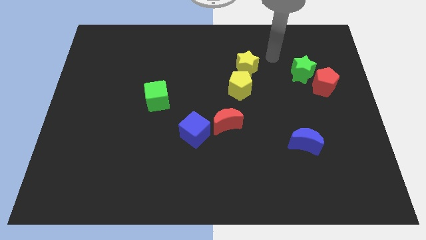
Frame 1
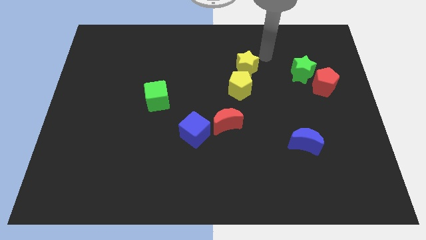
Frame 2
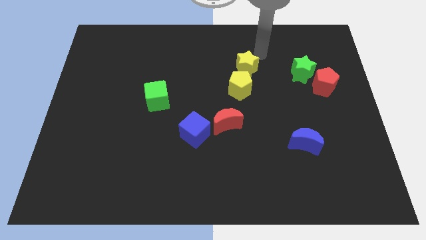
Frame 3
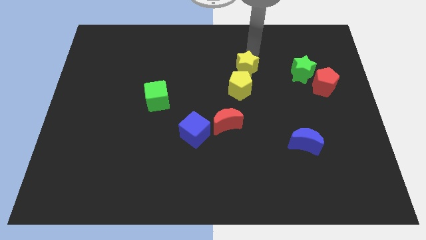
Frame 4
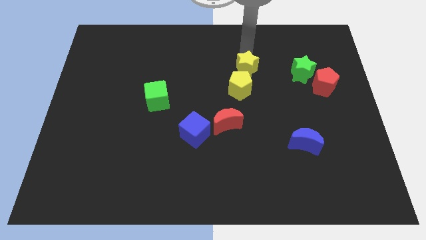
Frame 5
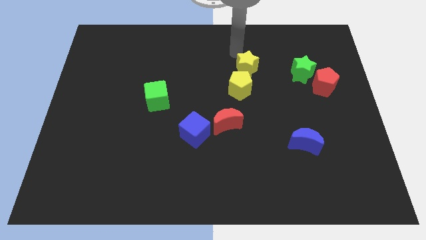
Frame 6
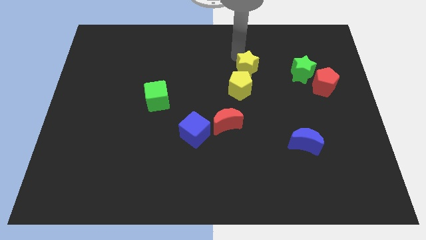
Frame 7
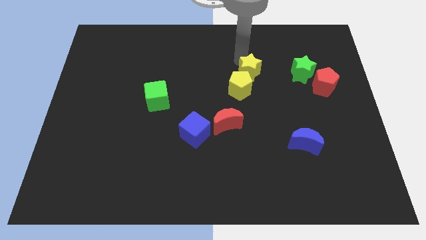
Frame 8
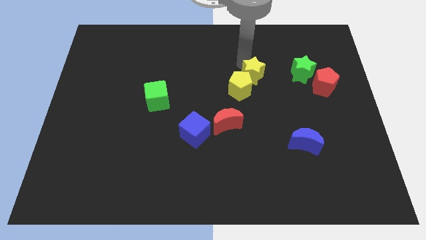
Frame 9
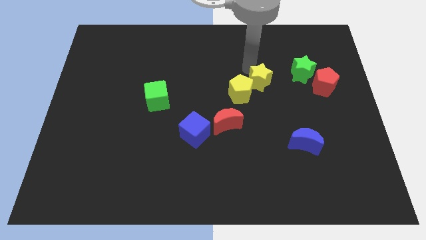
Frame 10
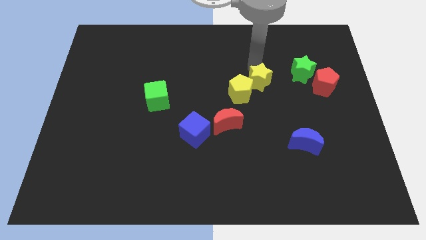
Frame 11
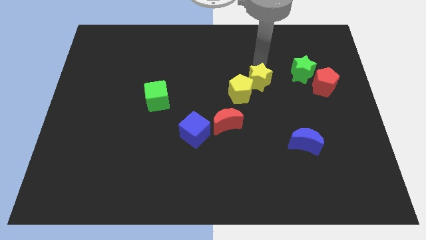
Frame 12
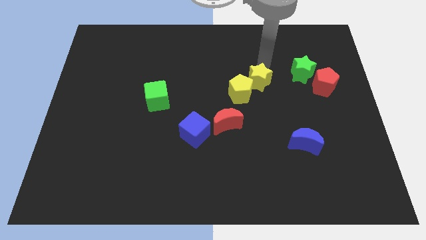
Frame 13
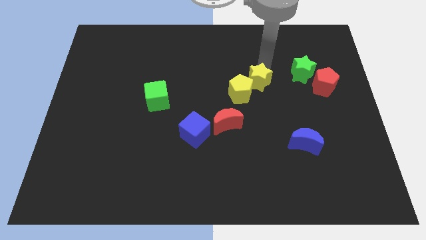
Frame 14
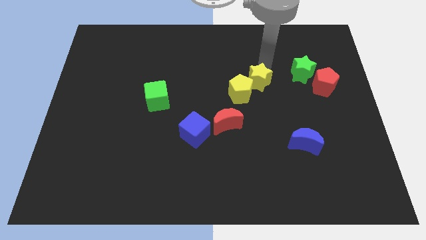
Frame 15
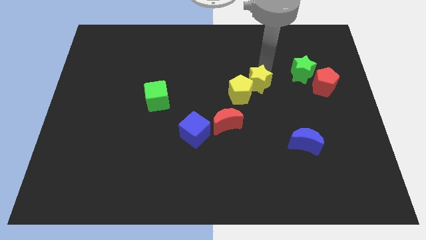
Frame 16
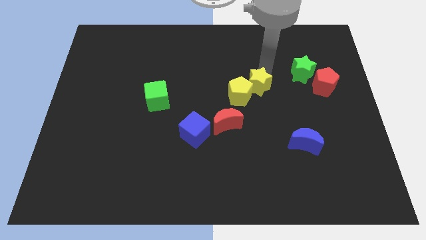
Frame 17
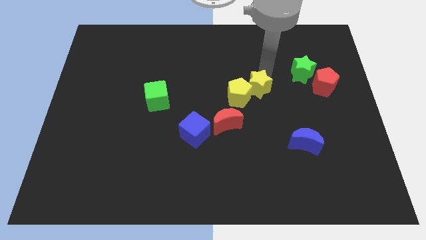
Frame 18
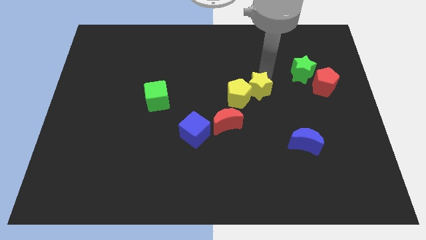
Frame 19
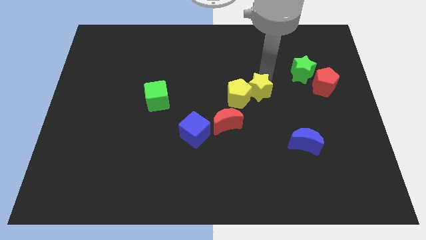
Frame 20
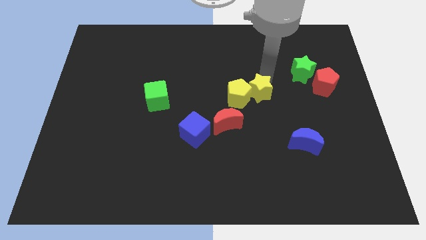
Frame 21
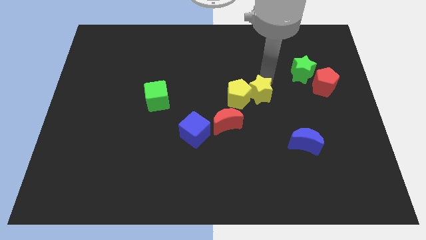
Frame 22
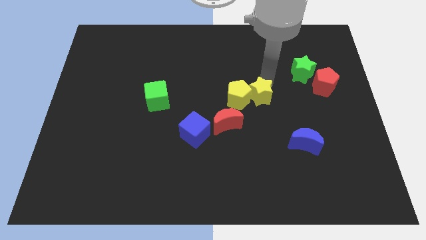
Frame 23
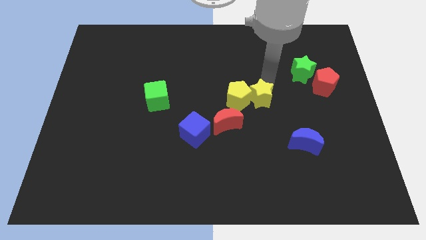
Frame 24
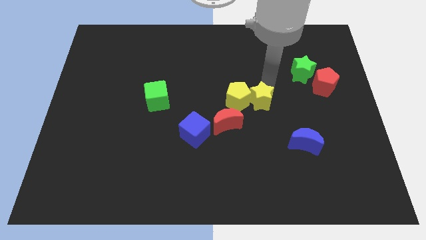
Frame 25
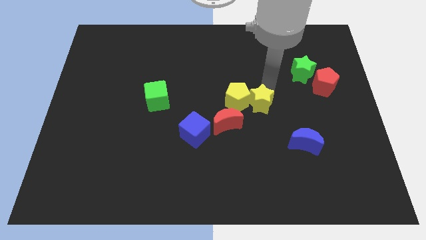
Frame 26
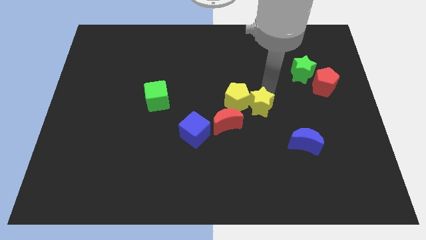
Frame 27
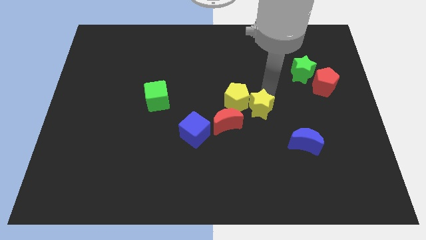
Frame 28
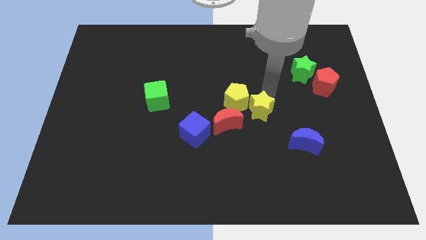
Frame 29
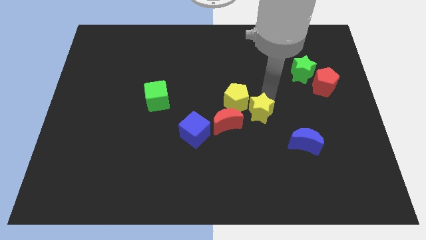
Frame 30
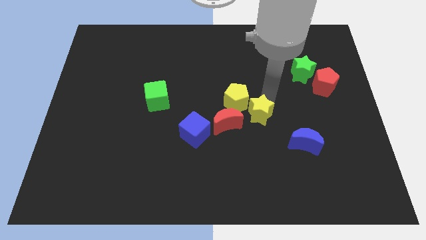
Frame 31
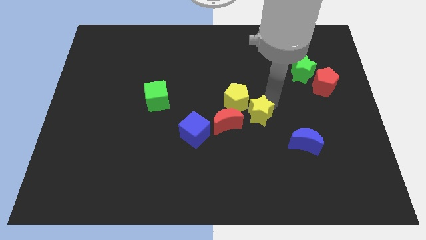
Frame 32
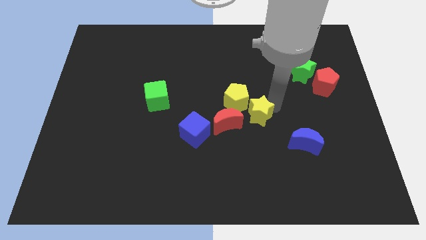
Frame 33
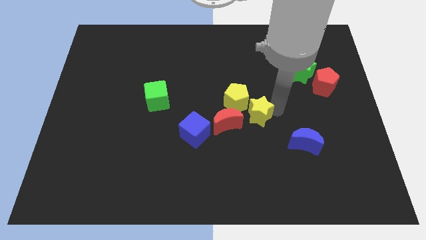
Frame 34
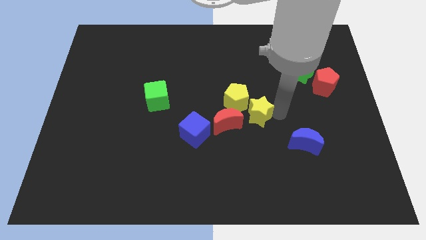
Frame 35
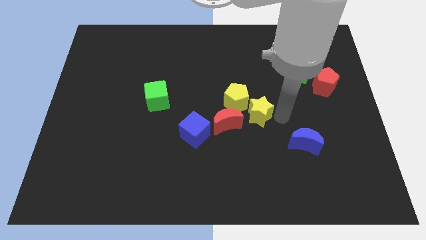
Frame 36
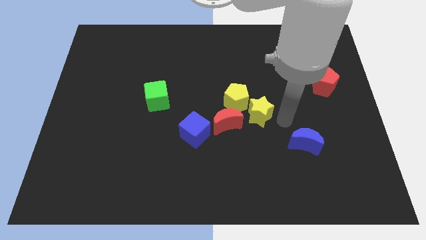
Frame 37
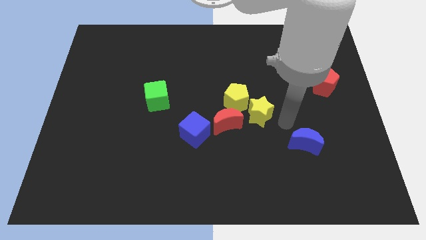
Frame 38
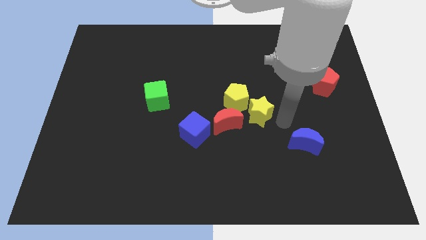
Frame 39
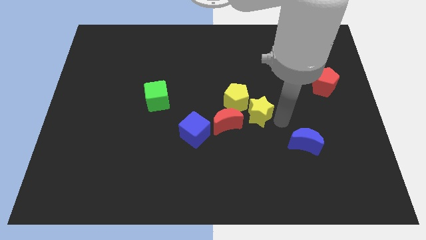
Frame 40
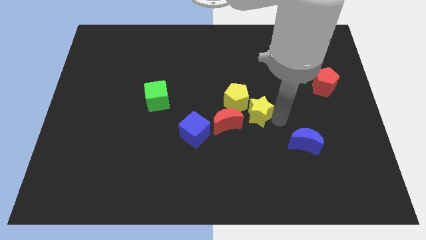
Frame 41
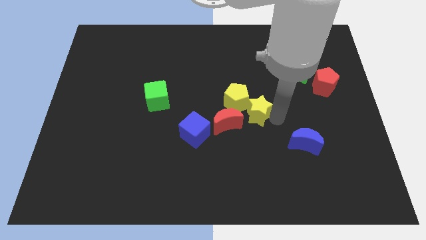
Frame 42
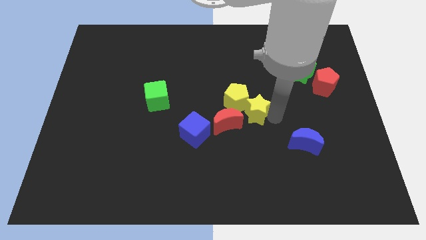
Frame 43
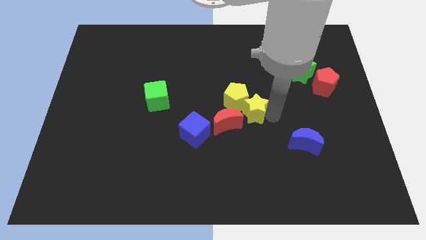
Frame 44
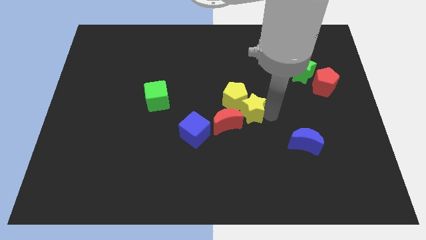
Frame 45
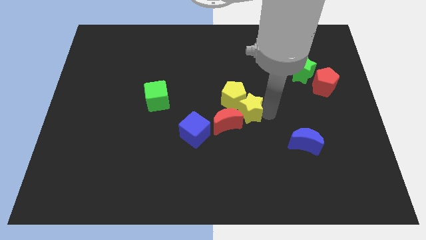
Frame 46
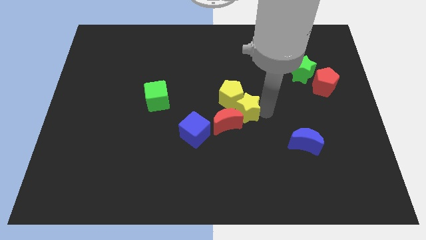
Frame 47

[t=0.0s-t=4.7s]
move the yellow star close to the red moon

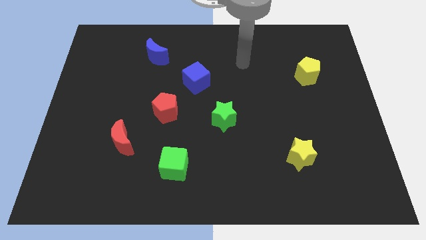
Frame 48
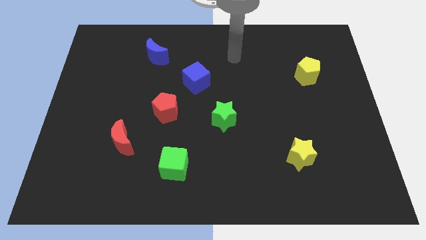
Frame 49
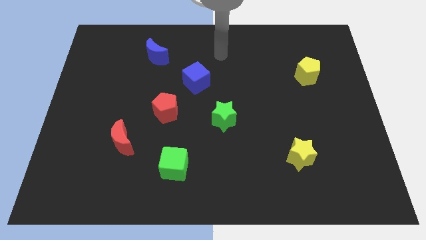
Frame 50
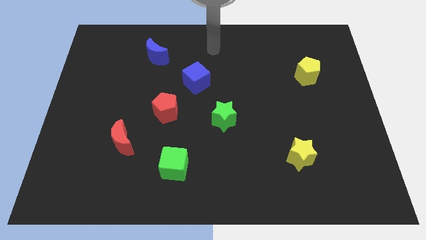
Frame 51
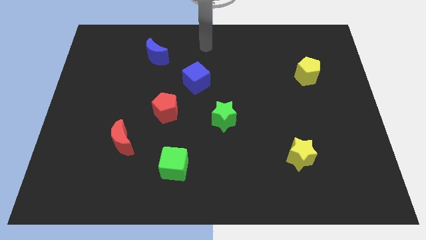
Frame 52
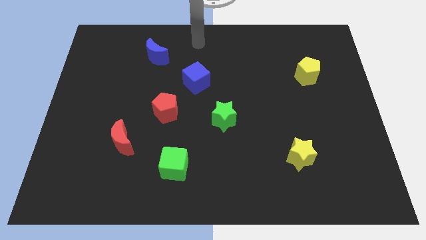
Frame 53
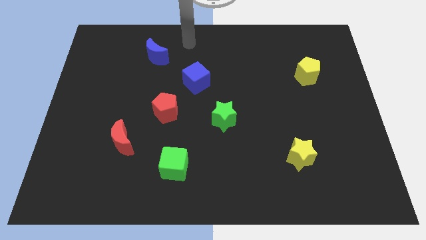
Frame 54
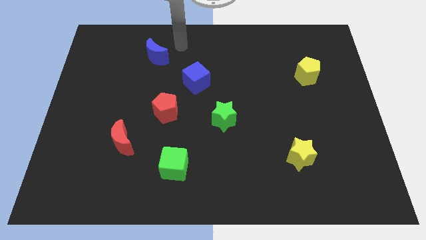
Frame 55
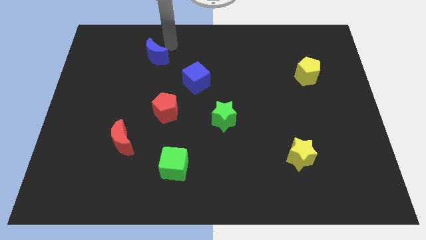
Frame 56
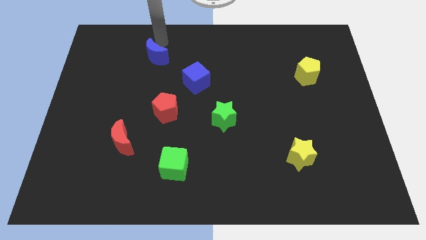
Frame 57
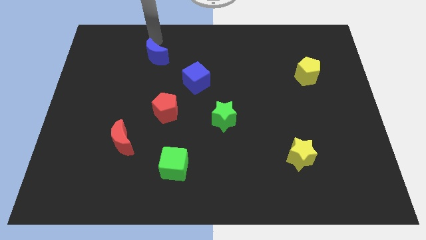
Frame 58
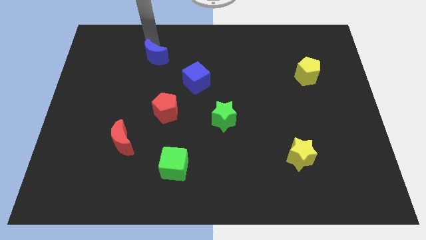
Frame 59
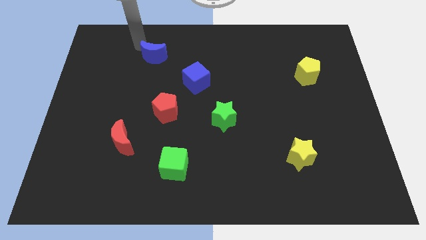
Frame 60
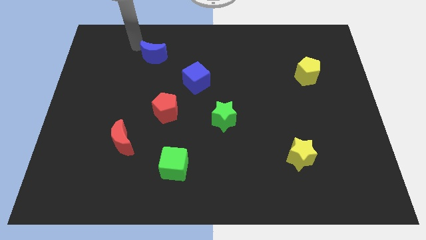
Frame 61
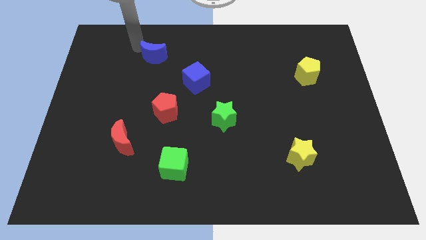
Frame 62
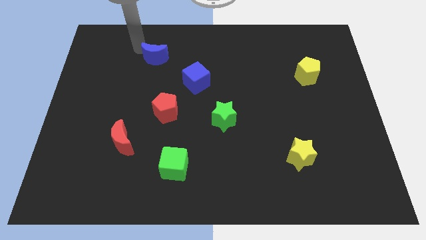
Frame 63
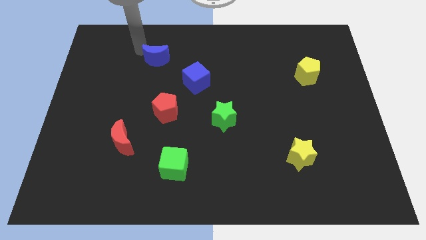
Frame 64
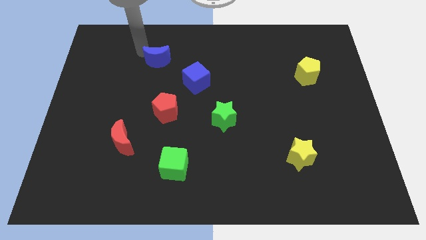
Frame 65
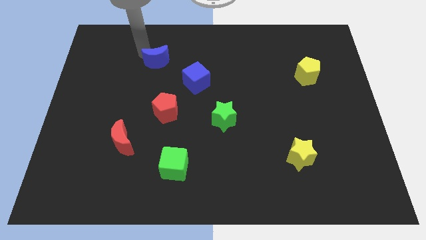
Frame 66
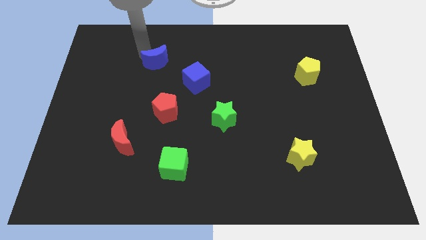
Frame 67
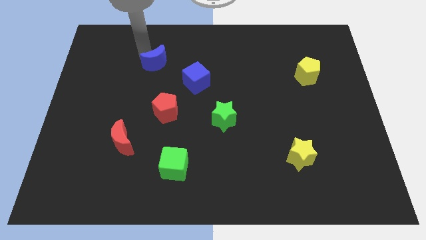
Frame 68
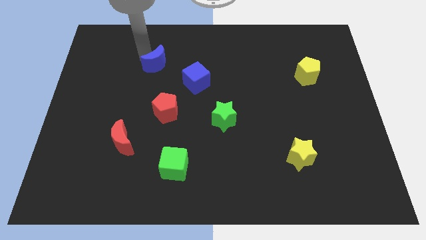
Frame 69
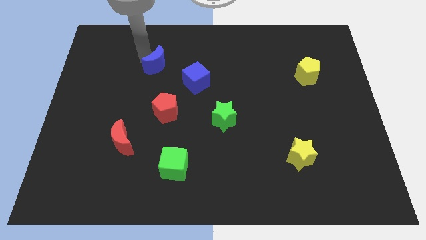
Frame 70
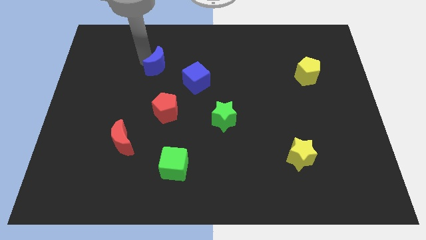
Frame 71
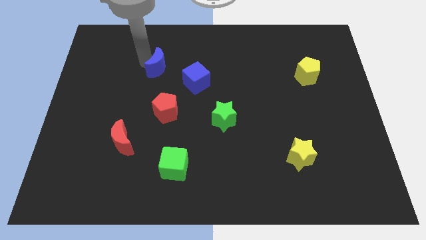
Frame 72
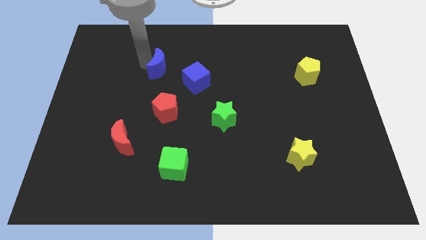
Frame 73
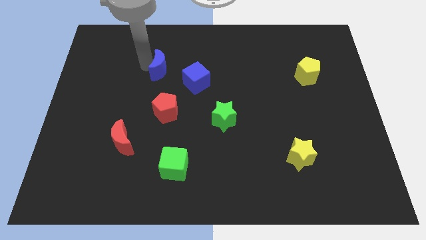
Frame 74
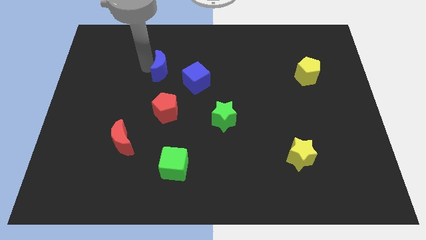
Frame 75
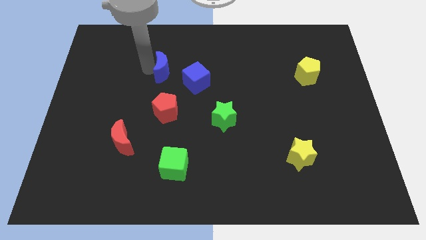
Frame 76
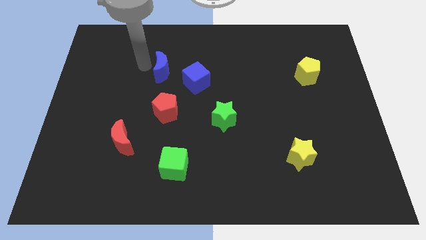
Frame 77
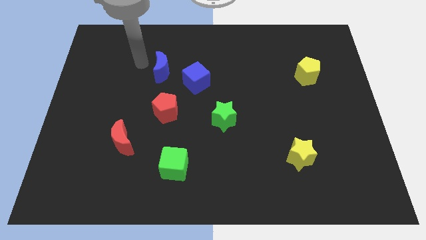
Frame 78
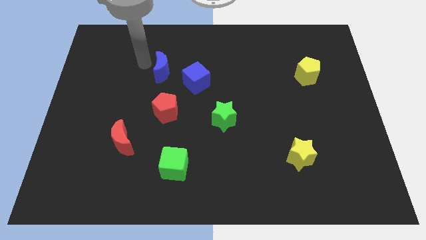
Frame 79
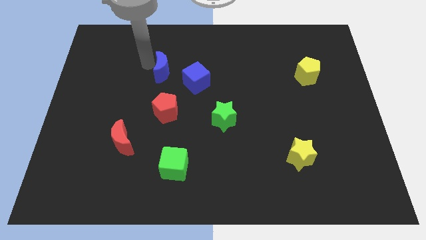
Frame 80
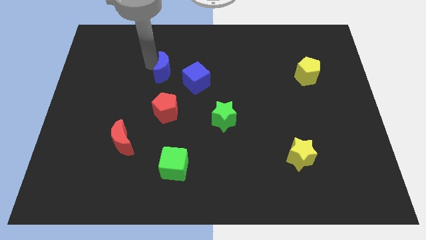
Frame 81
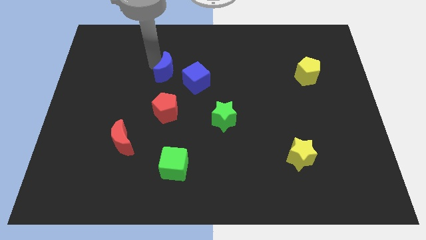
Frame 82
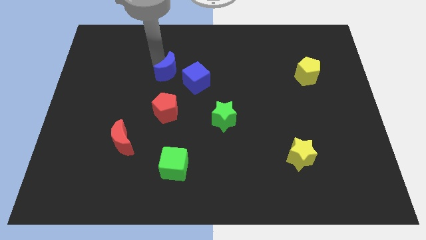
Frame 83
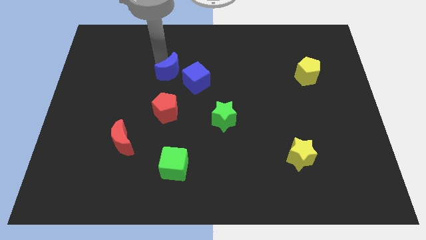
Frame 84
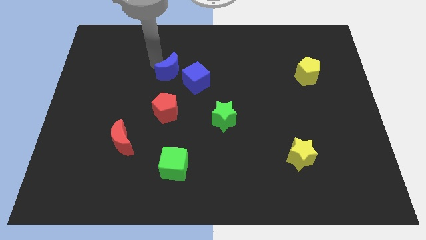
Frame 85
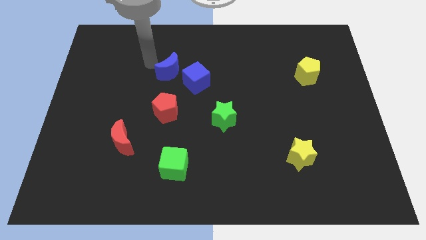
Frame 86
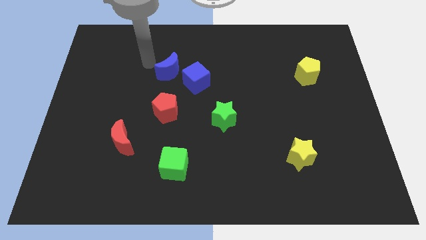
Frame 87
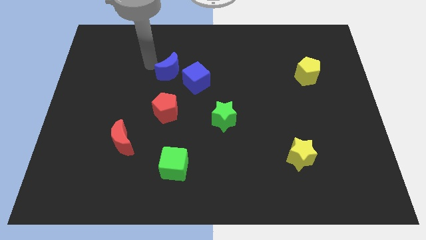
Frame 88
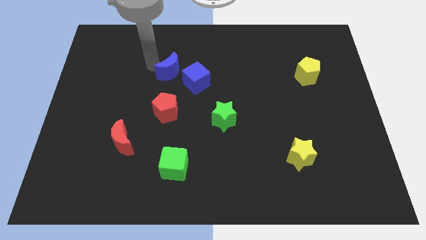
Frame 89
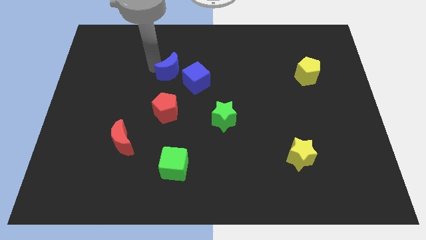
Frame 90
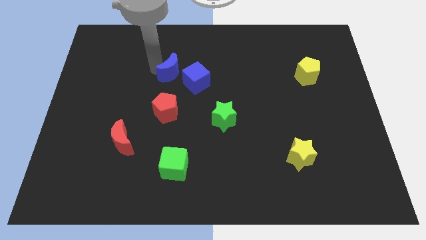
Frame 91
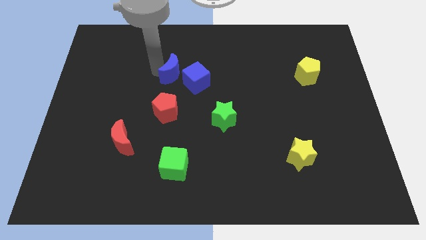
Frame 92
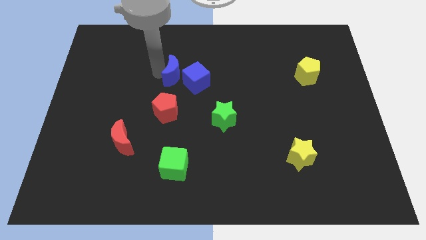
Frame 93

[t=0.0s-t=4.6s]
slide the blue moon close to the blue cube
